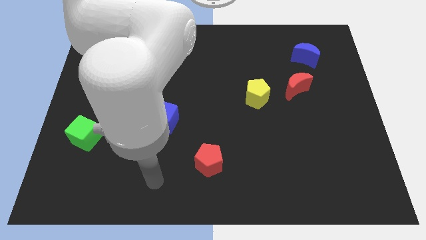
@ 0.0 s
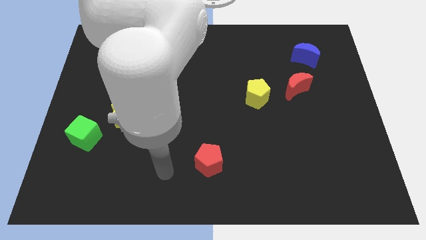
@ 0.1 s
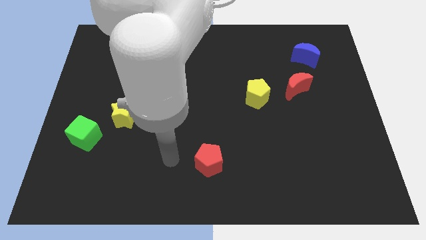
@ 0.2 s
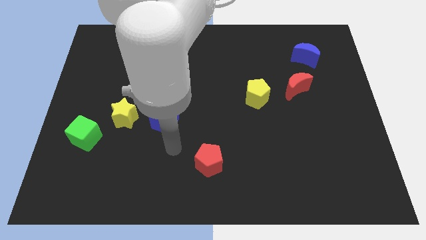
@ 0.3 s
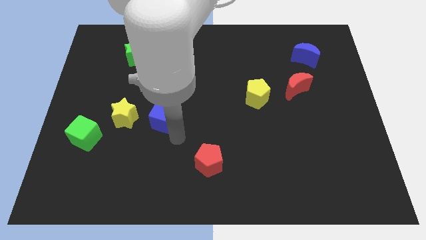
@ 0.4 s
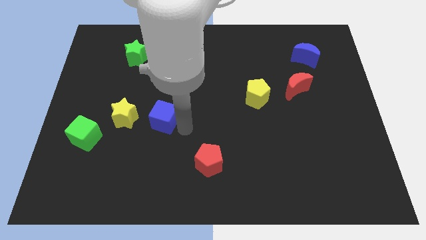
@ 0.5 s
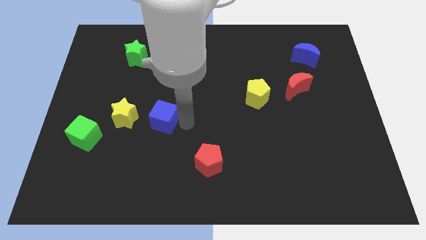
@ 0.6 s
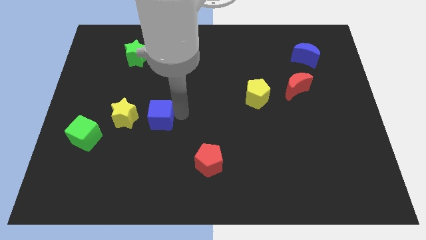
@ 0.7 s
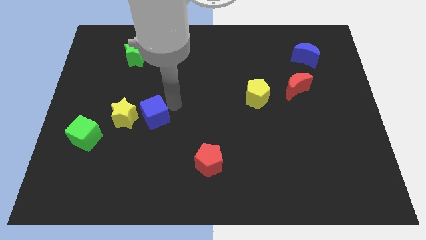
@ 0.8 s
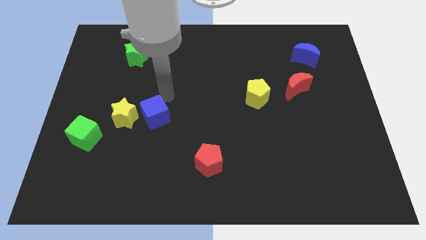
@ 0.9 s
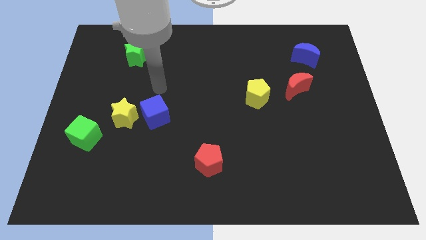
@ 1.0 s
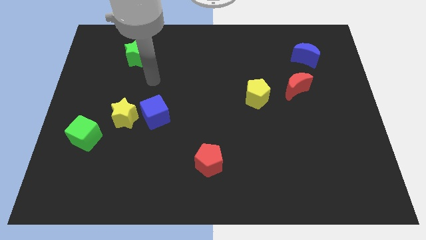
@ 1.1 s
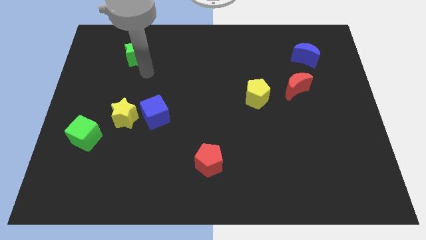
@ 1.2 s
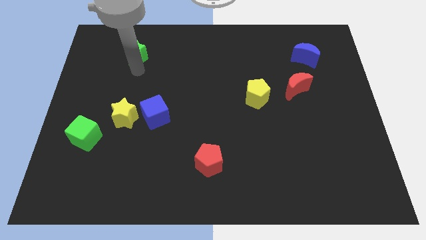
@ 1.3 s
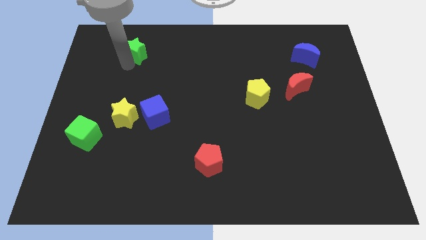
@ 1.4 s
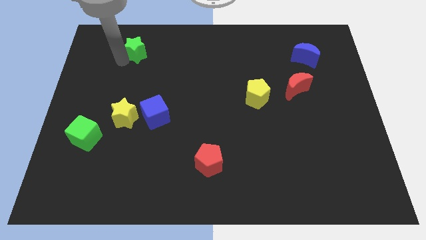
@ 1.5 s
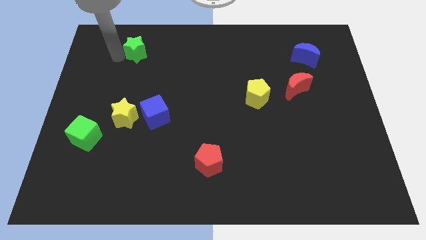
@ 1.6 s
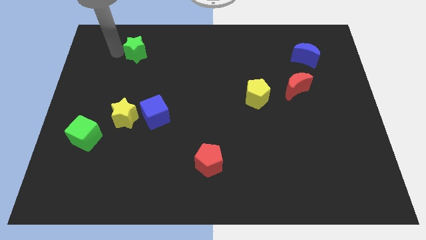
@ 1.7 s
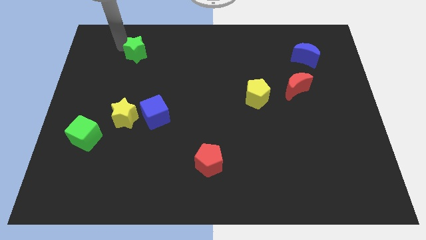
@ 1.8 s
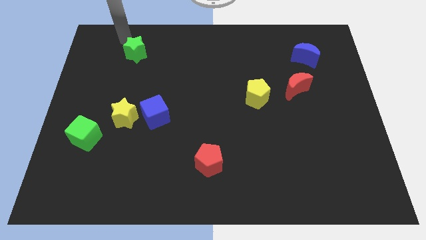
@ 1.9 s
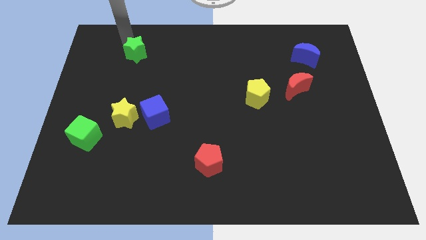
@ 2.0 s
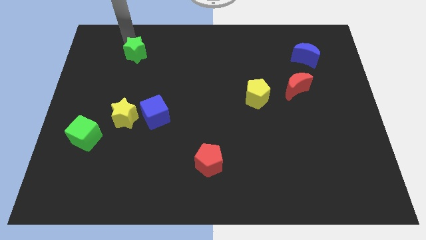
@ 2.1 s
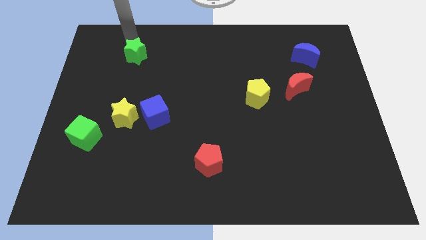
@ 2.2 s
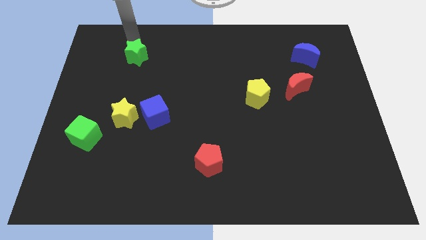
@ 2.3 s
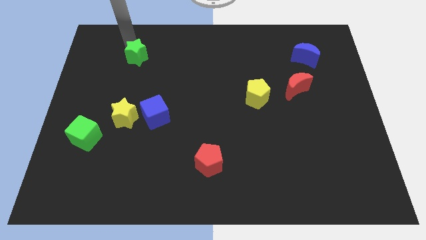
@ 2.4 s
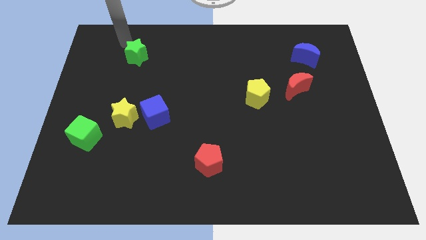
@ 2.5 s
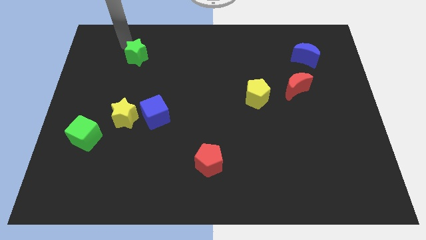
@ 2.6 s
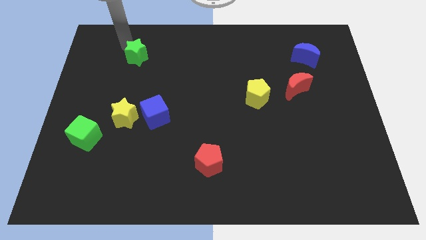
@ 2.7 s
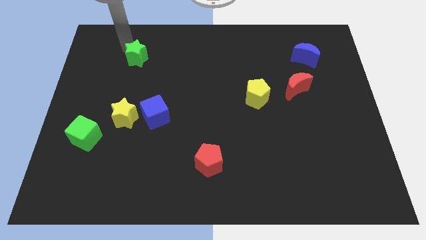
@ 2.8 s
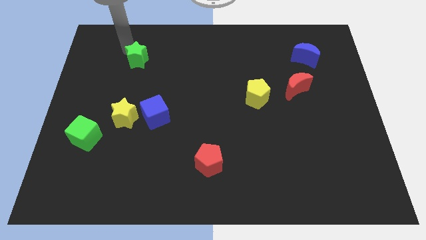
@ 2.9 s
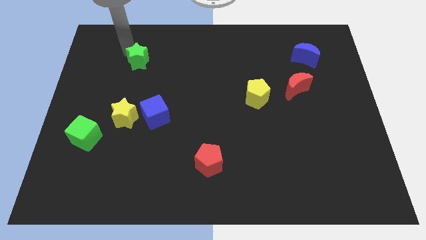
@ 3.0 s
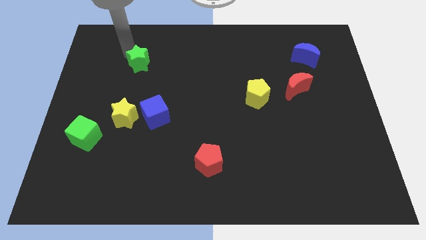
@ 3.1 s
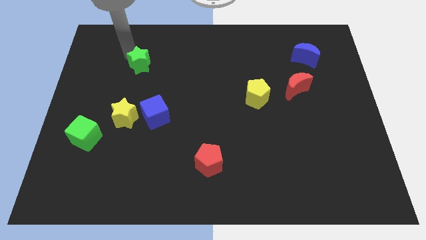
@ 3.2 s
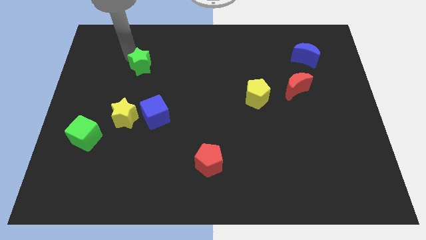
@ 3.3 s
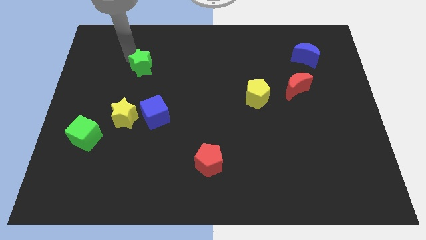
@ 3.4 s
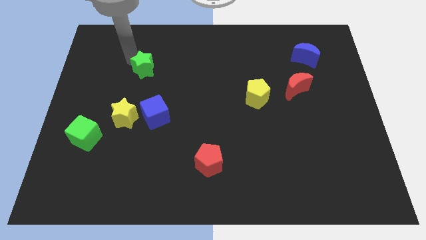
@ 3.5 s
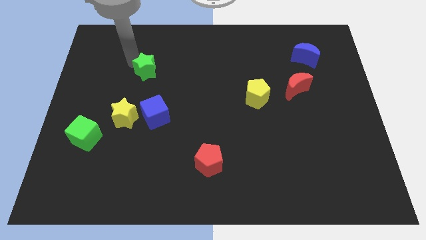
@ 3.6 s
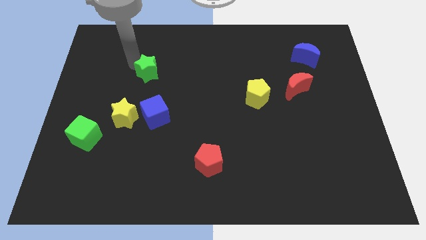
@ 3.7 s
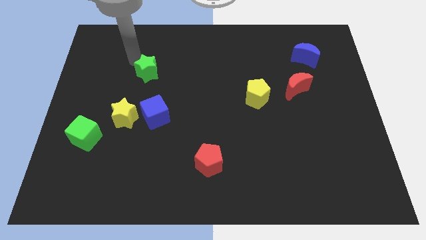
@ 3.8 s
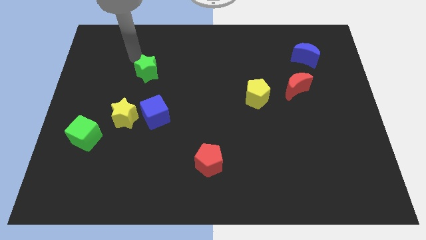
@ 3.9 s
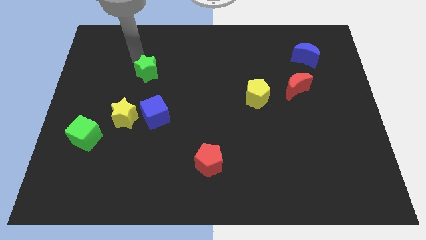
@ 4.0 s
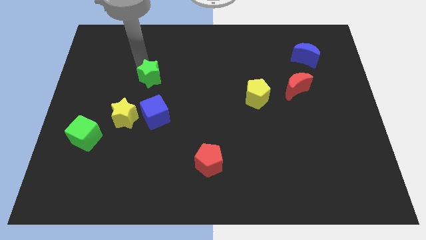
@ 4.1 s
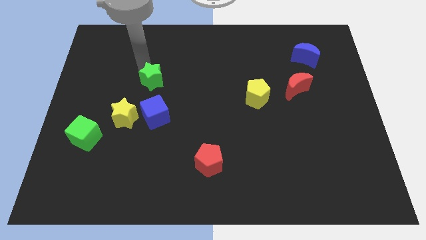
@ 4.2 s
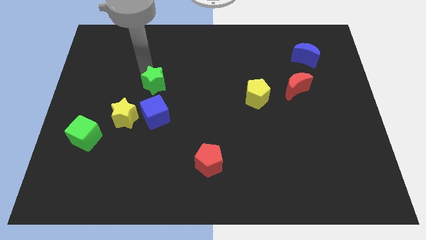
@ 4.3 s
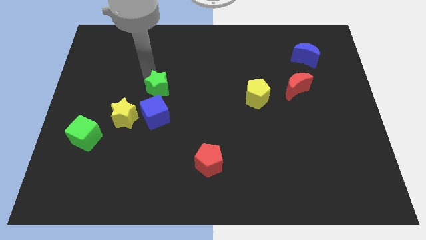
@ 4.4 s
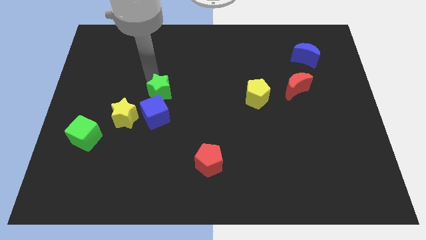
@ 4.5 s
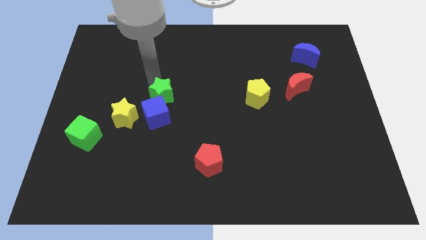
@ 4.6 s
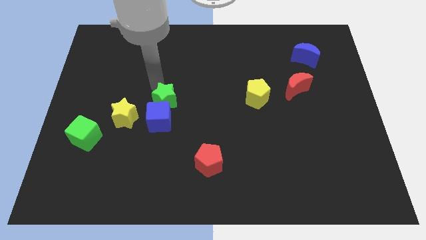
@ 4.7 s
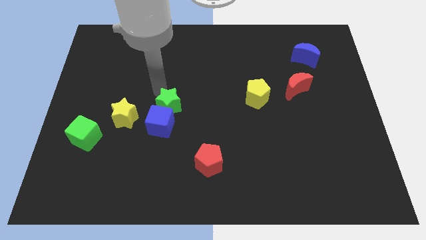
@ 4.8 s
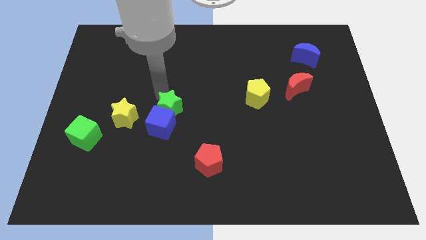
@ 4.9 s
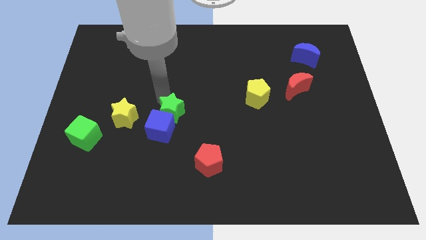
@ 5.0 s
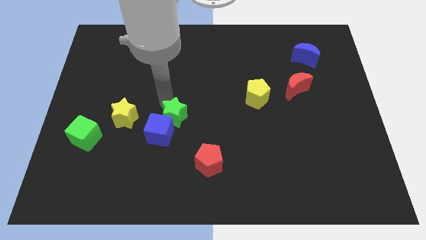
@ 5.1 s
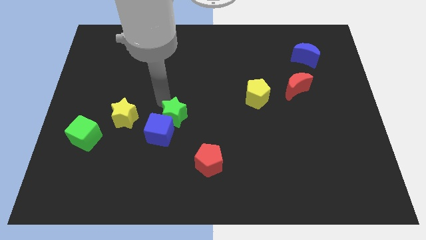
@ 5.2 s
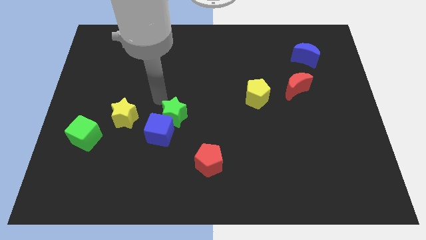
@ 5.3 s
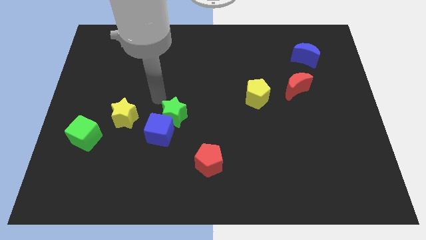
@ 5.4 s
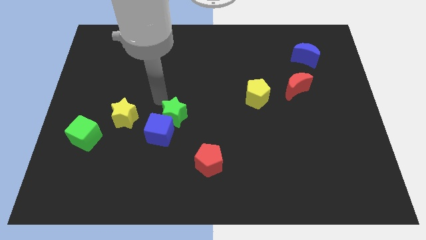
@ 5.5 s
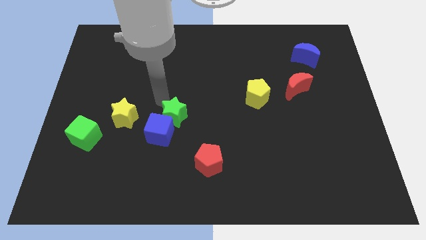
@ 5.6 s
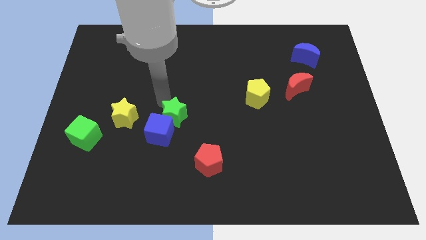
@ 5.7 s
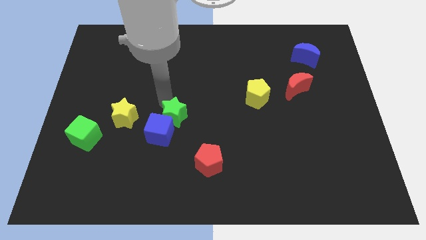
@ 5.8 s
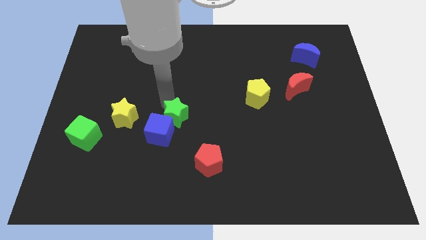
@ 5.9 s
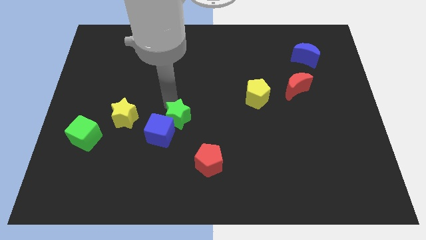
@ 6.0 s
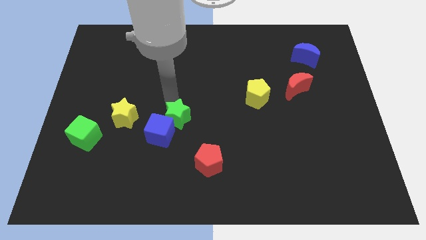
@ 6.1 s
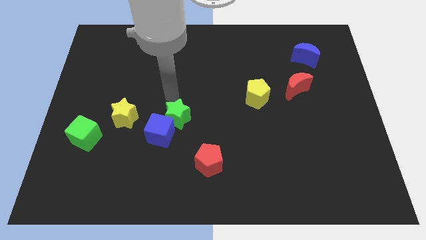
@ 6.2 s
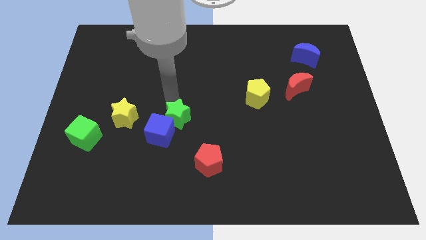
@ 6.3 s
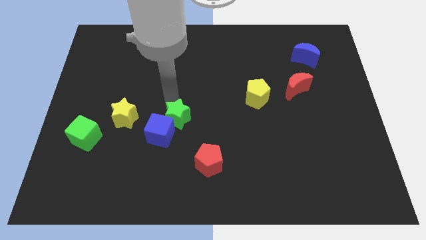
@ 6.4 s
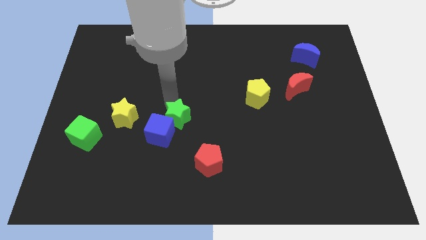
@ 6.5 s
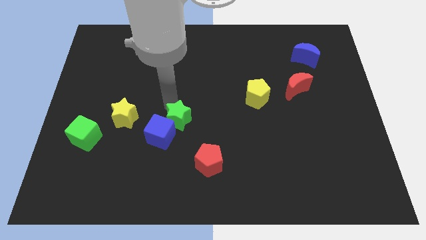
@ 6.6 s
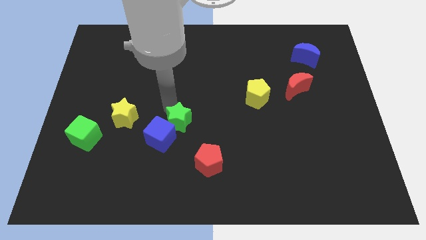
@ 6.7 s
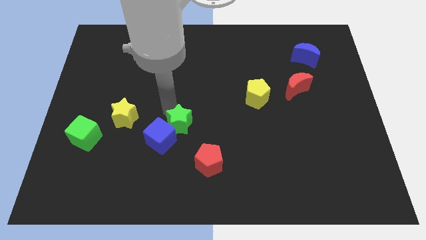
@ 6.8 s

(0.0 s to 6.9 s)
push the green star to the top left side of the red pentagon

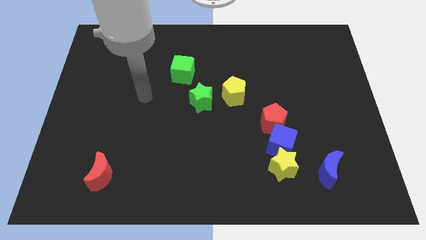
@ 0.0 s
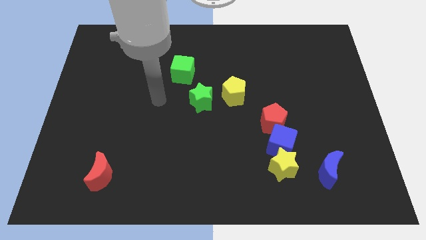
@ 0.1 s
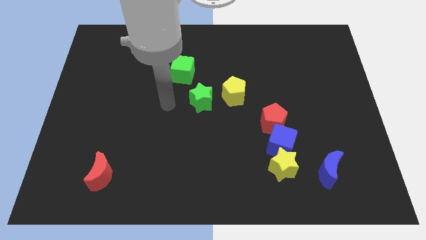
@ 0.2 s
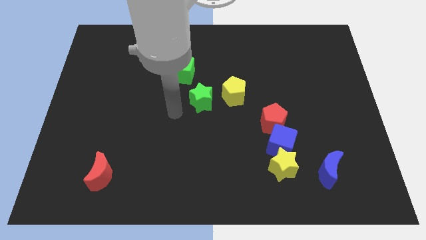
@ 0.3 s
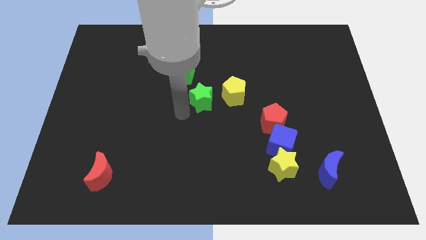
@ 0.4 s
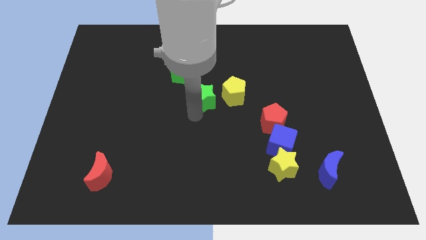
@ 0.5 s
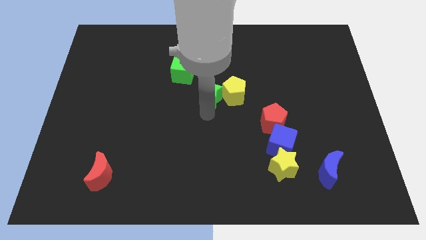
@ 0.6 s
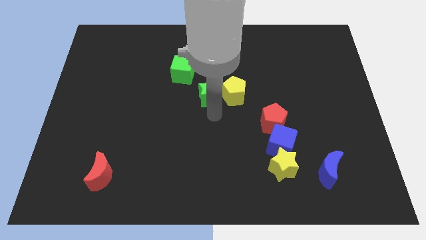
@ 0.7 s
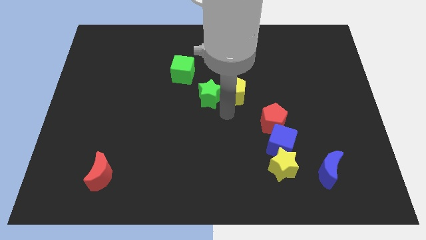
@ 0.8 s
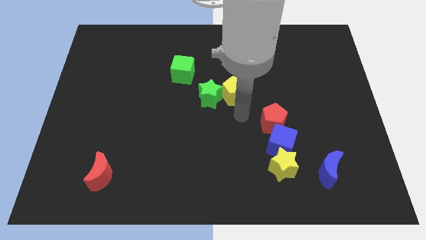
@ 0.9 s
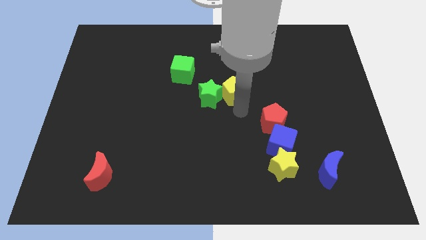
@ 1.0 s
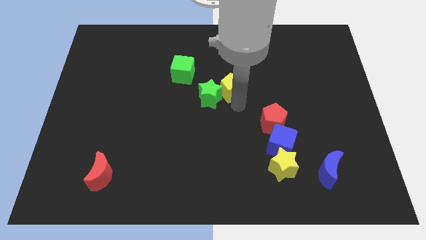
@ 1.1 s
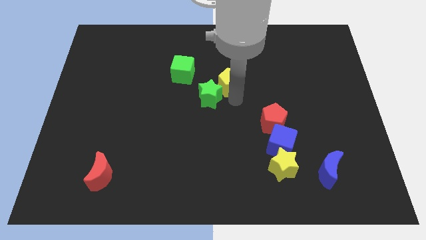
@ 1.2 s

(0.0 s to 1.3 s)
move the yellow pentagon to the right side of the green cube
